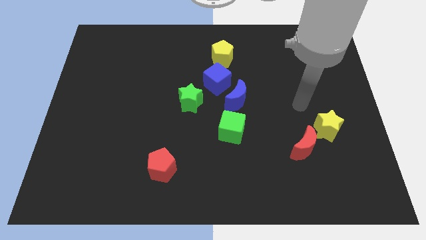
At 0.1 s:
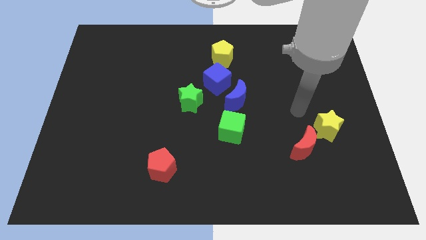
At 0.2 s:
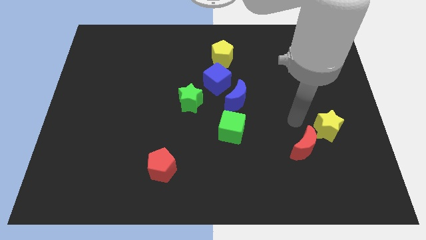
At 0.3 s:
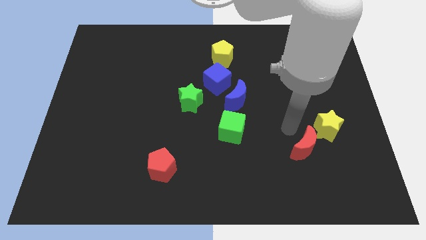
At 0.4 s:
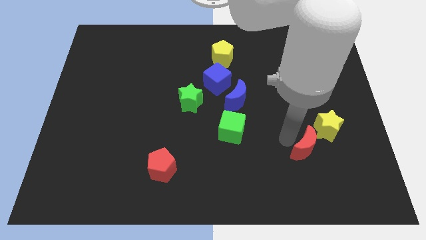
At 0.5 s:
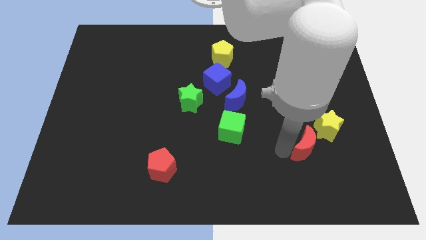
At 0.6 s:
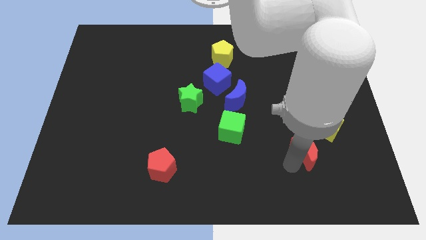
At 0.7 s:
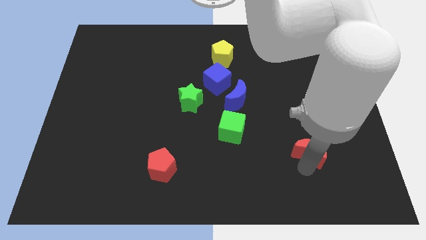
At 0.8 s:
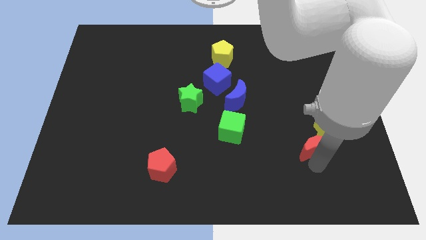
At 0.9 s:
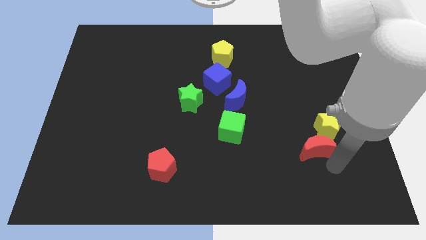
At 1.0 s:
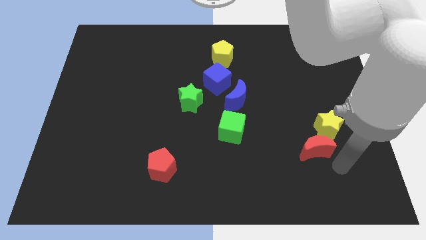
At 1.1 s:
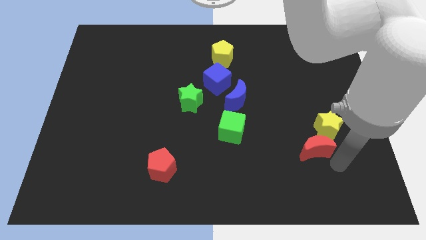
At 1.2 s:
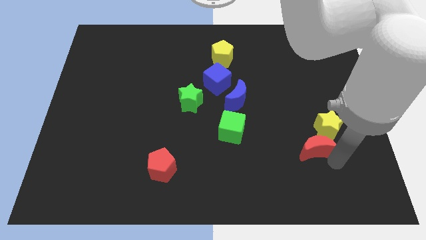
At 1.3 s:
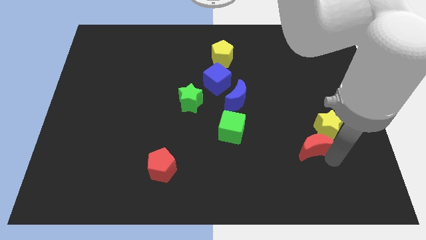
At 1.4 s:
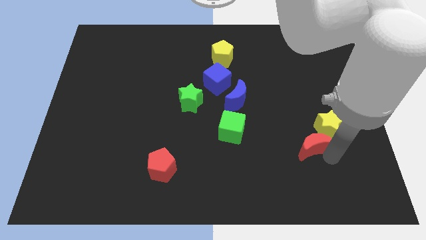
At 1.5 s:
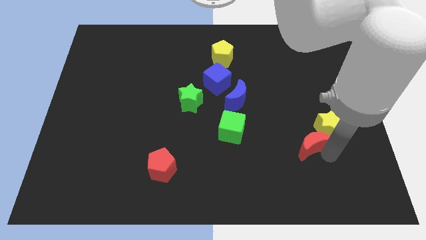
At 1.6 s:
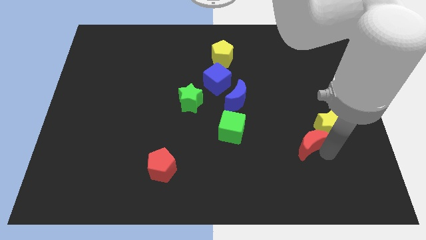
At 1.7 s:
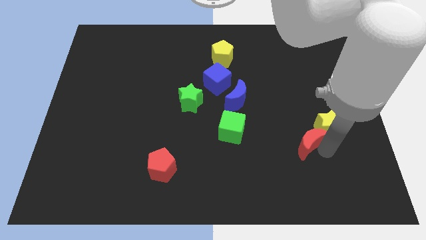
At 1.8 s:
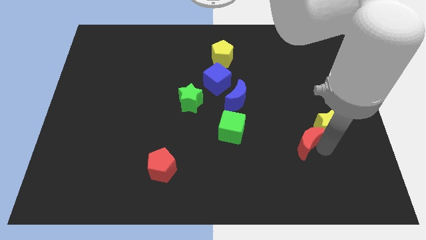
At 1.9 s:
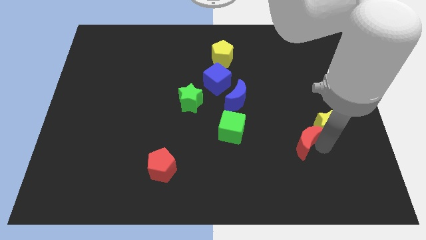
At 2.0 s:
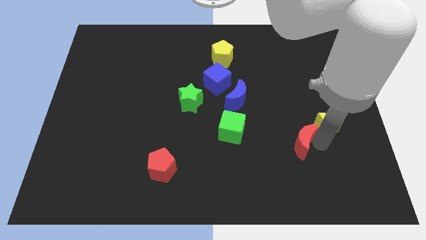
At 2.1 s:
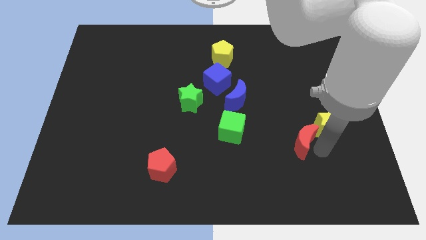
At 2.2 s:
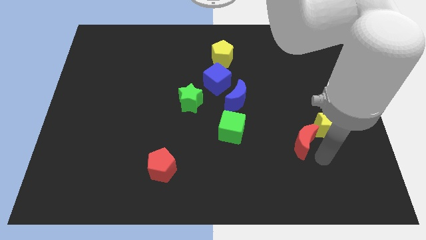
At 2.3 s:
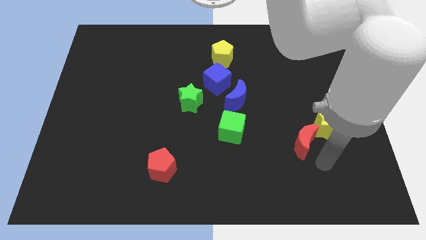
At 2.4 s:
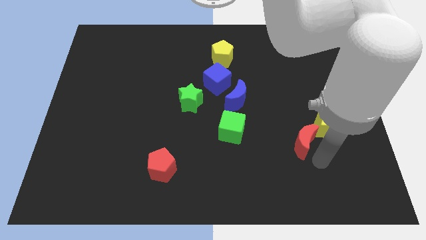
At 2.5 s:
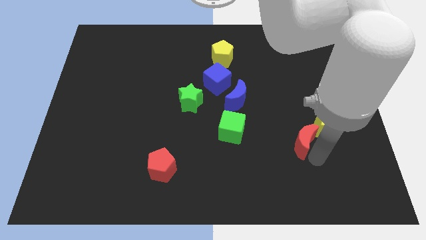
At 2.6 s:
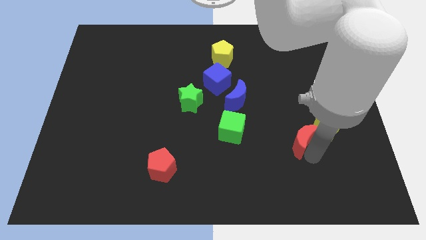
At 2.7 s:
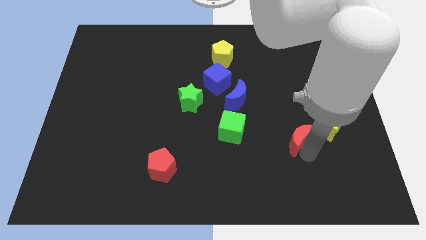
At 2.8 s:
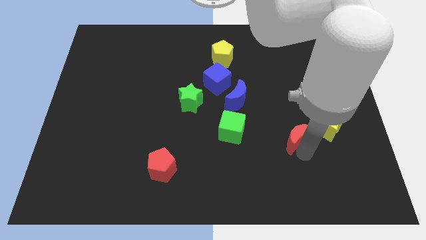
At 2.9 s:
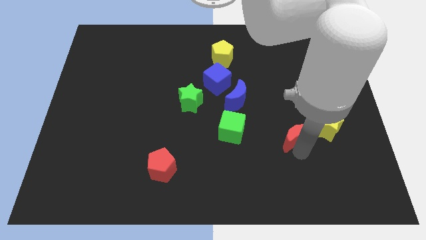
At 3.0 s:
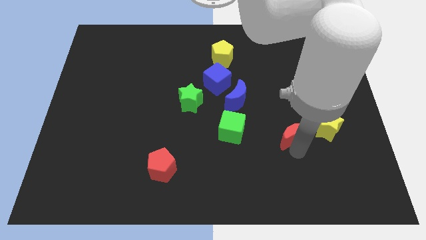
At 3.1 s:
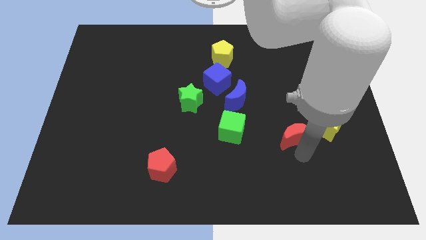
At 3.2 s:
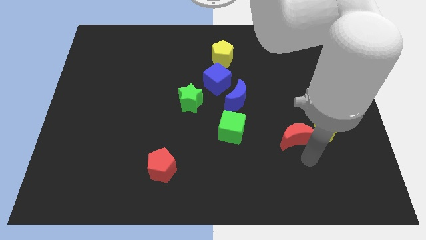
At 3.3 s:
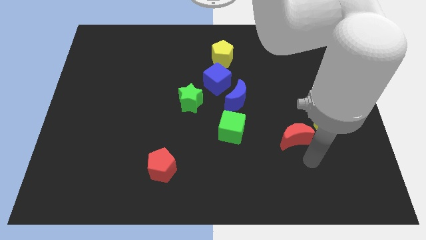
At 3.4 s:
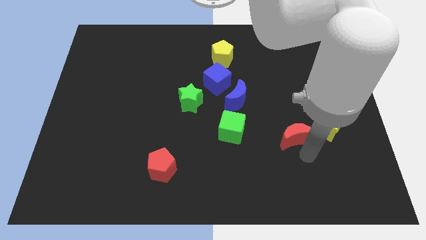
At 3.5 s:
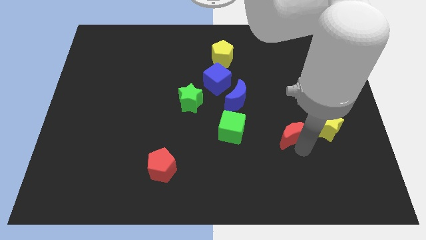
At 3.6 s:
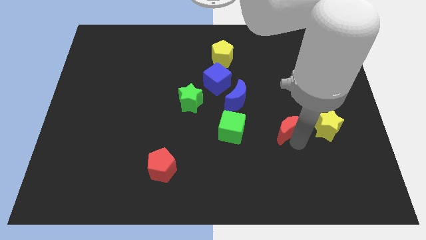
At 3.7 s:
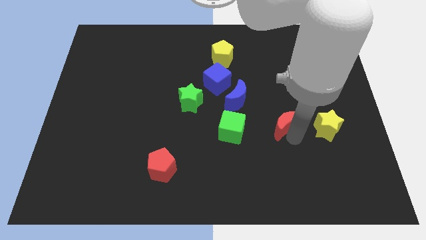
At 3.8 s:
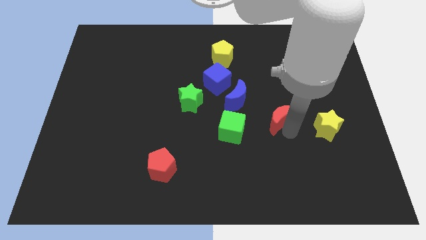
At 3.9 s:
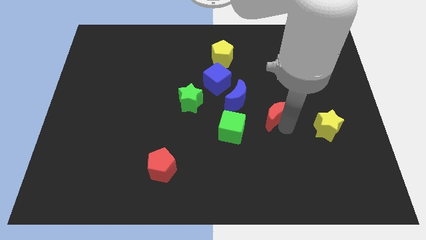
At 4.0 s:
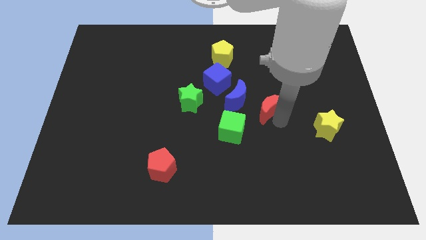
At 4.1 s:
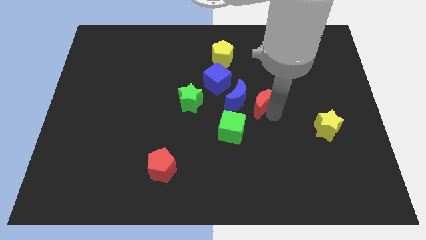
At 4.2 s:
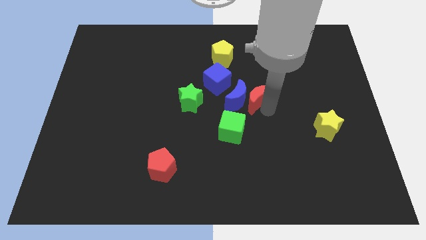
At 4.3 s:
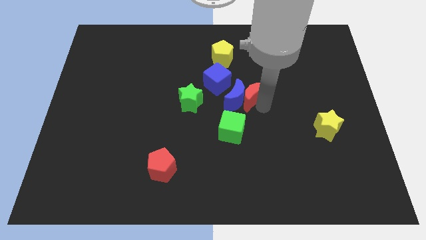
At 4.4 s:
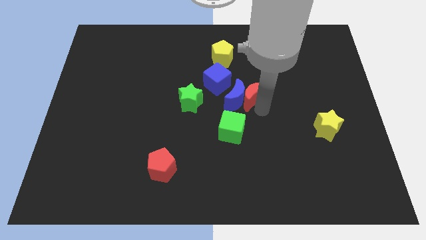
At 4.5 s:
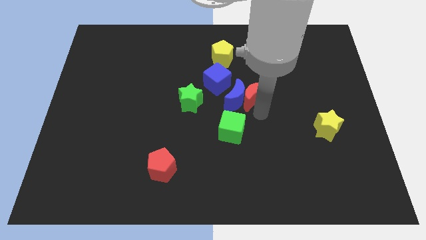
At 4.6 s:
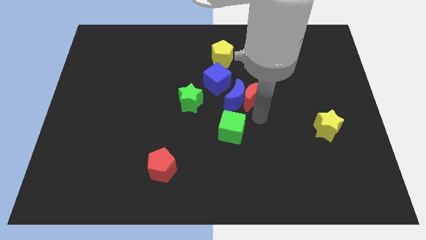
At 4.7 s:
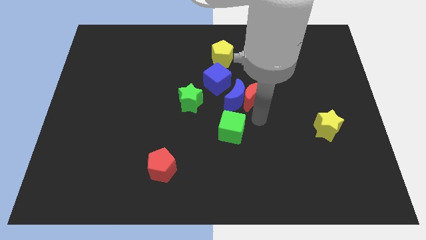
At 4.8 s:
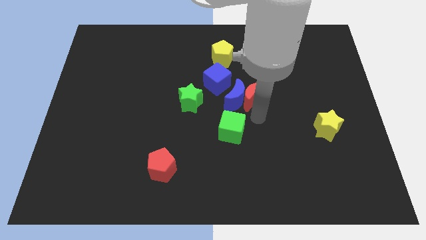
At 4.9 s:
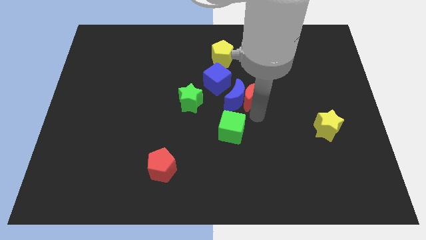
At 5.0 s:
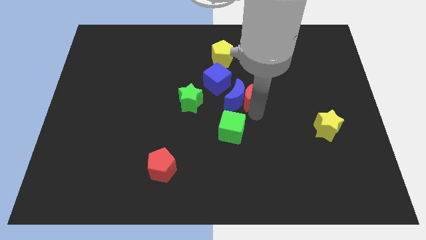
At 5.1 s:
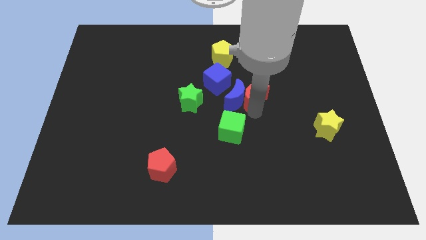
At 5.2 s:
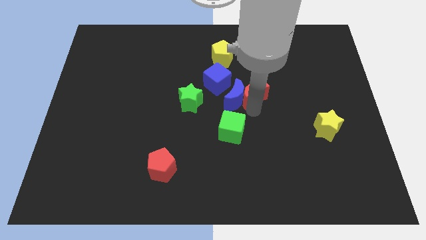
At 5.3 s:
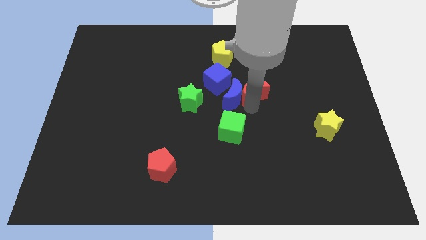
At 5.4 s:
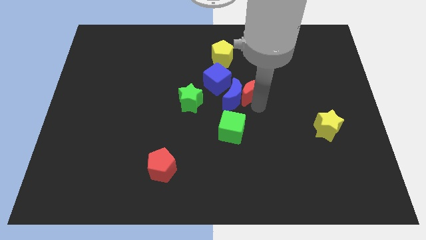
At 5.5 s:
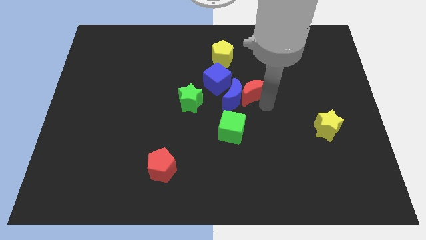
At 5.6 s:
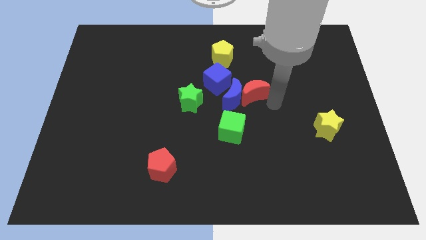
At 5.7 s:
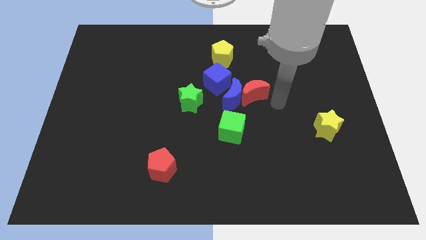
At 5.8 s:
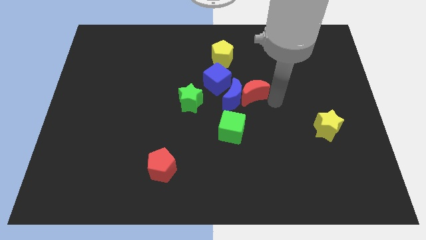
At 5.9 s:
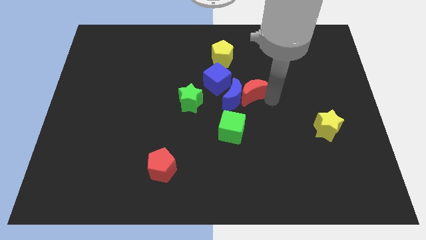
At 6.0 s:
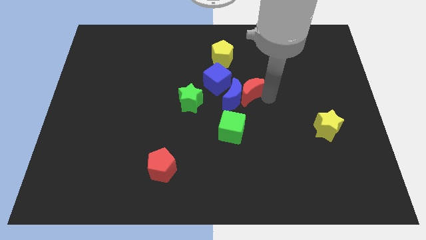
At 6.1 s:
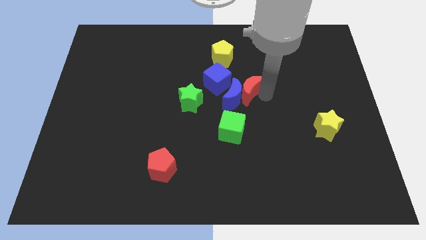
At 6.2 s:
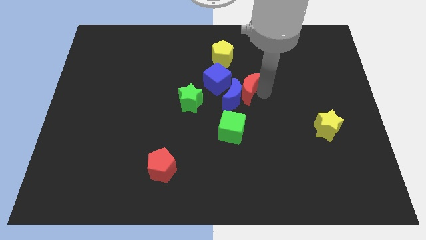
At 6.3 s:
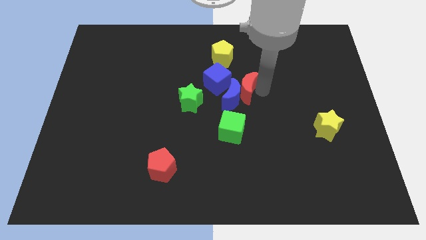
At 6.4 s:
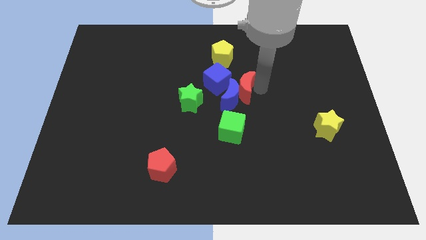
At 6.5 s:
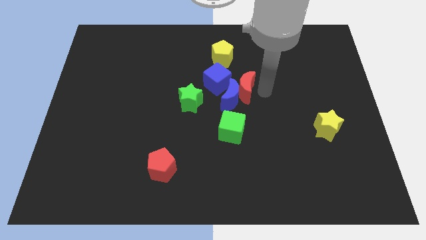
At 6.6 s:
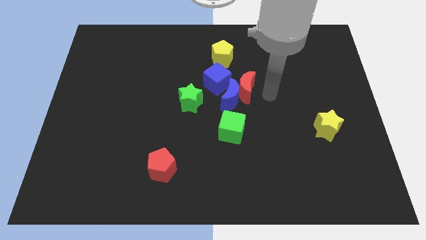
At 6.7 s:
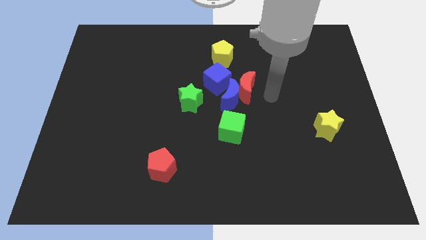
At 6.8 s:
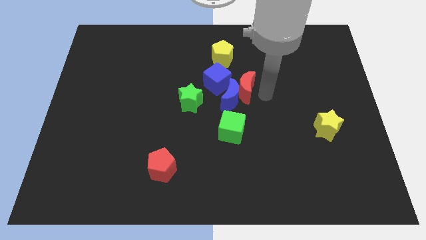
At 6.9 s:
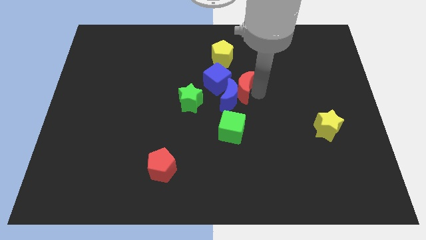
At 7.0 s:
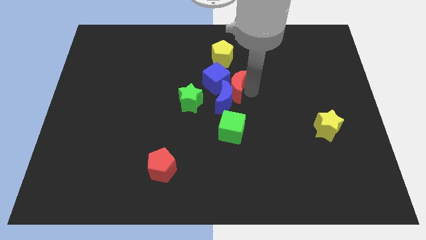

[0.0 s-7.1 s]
slide the red moon next to the blue cube

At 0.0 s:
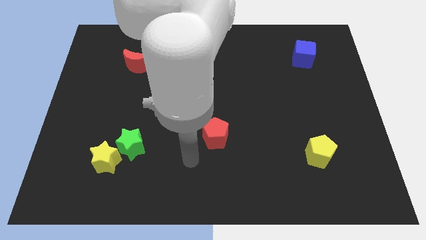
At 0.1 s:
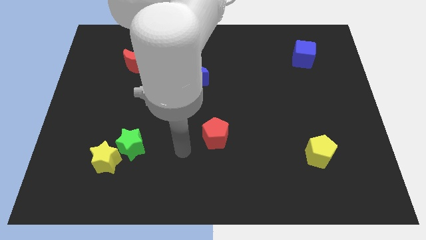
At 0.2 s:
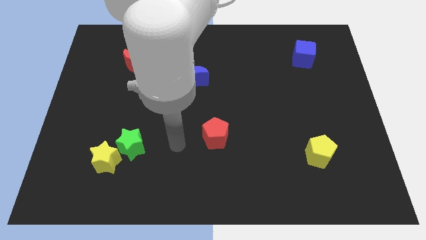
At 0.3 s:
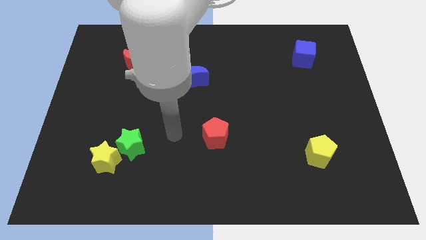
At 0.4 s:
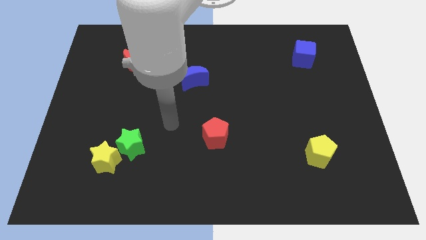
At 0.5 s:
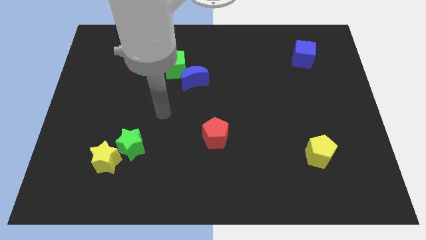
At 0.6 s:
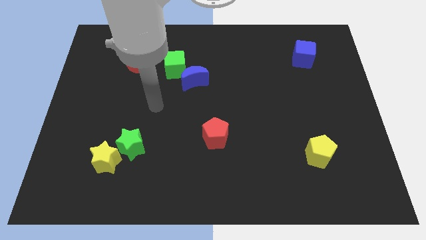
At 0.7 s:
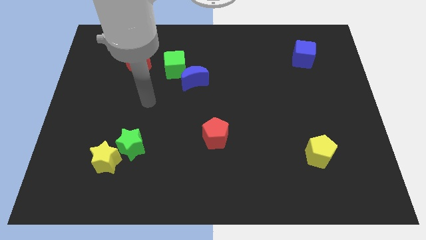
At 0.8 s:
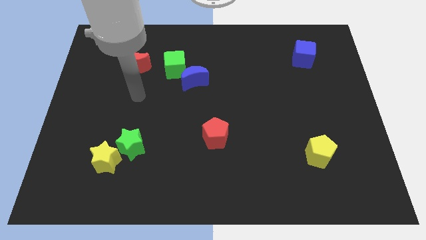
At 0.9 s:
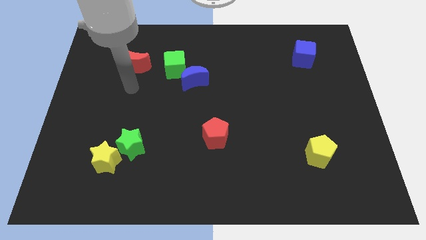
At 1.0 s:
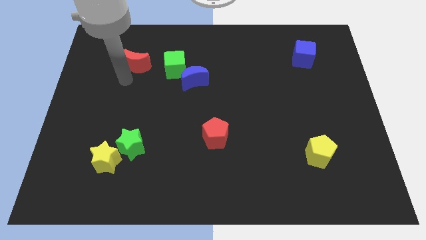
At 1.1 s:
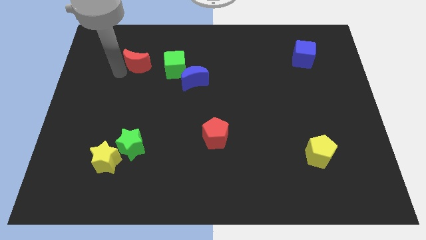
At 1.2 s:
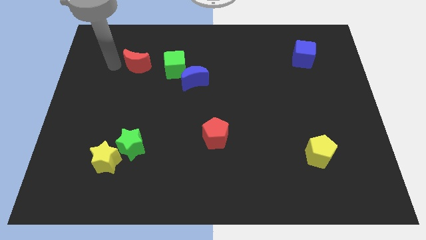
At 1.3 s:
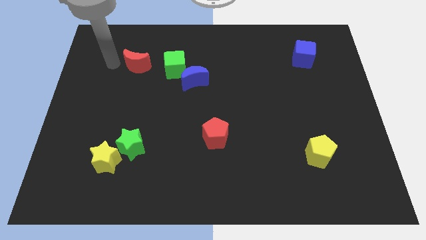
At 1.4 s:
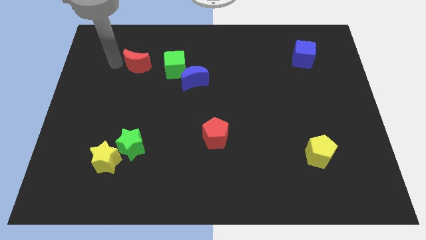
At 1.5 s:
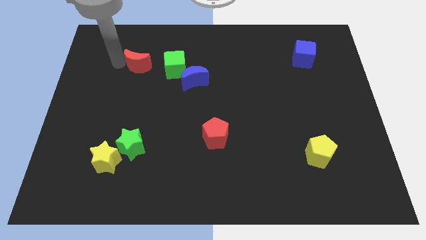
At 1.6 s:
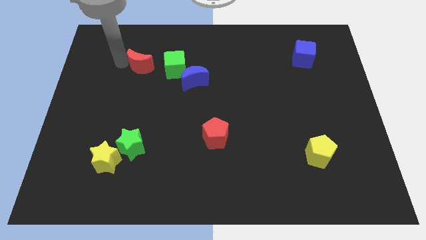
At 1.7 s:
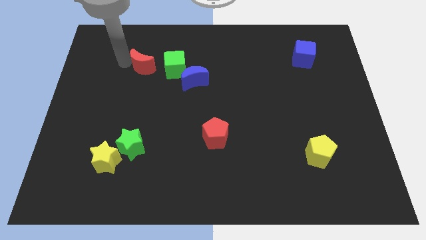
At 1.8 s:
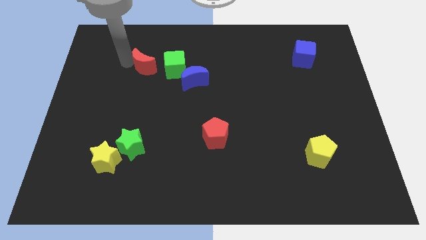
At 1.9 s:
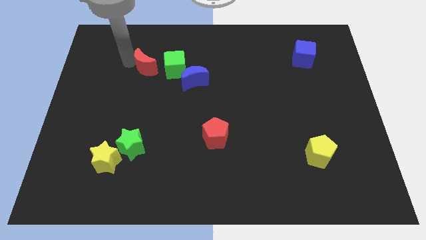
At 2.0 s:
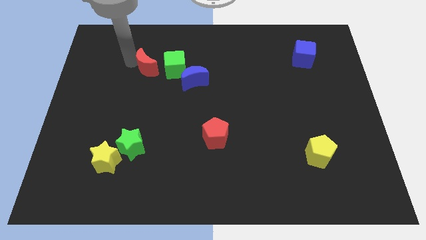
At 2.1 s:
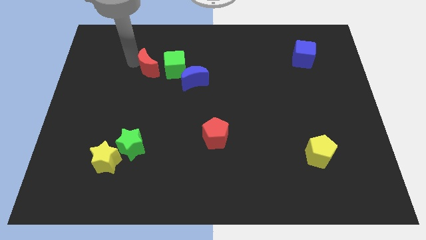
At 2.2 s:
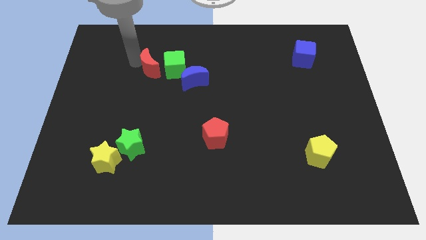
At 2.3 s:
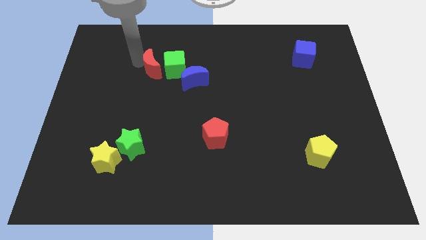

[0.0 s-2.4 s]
put the red moon to the green cube
